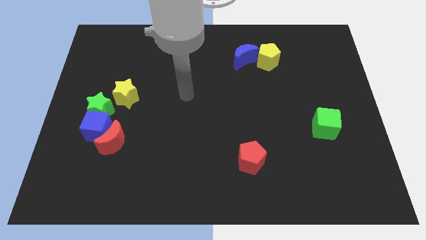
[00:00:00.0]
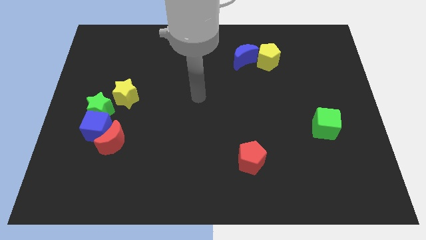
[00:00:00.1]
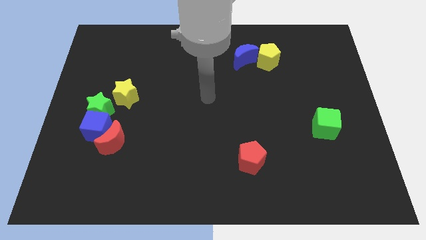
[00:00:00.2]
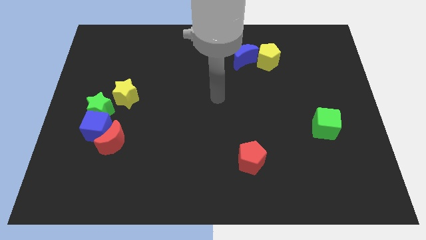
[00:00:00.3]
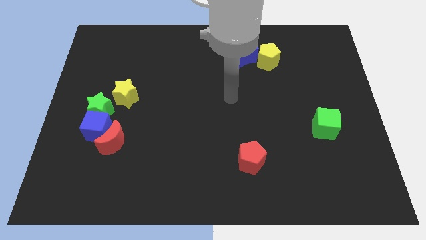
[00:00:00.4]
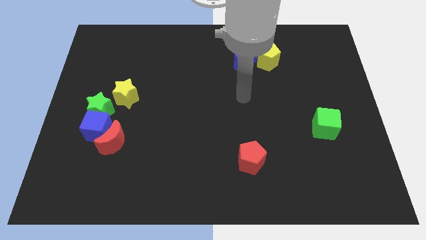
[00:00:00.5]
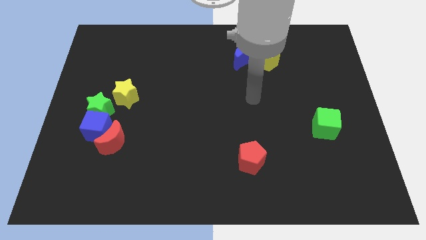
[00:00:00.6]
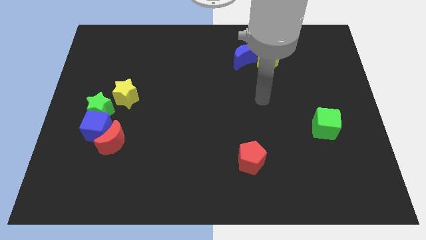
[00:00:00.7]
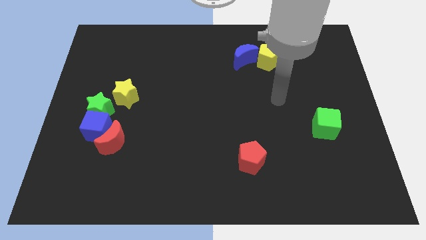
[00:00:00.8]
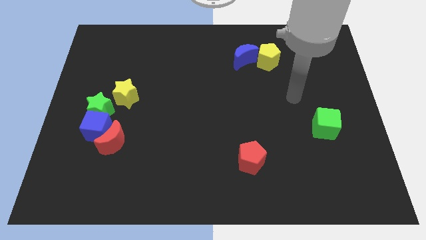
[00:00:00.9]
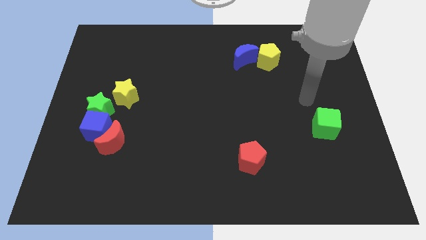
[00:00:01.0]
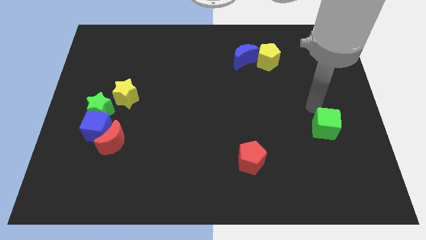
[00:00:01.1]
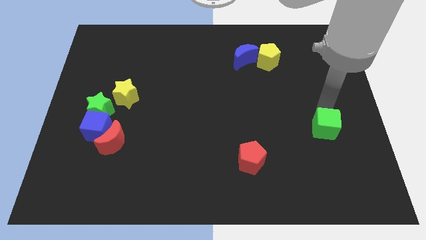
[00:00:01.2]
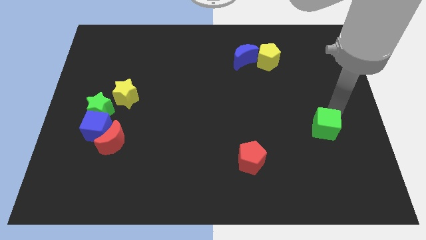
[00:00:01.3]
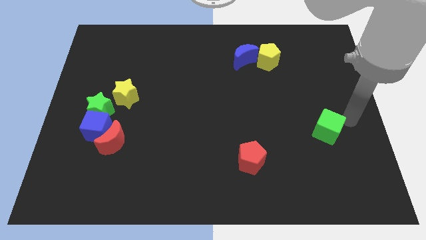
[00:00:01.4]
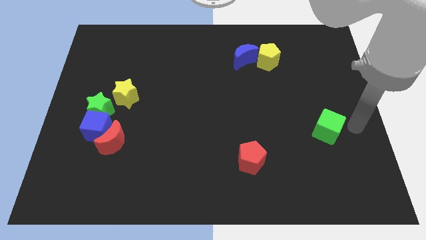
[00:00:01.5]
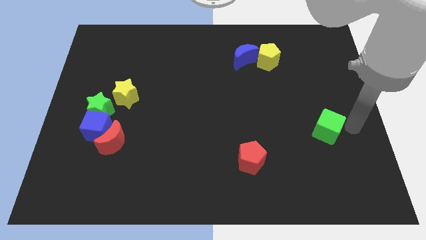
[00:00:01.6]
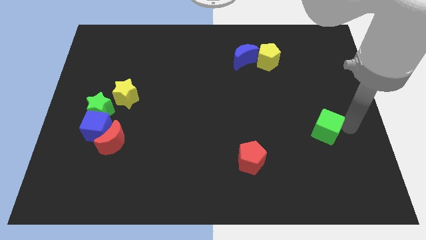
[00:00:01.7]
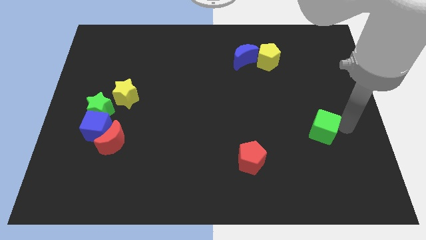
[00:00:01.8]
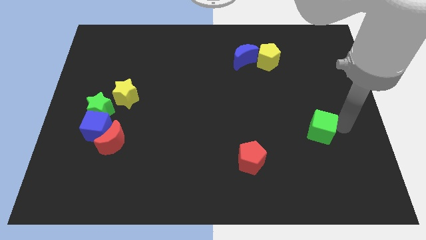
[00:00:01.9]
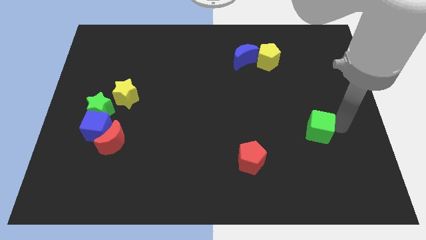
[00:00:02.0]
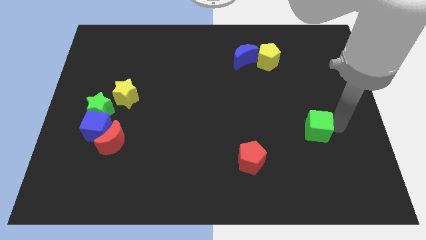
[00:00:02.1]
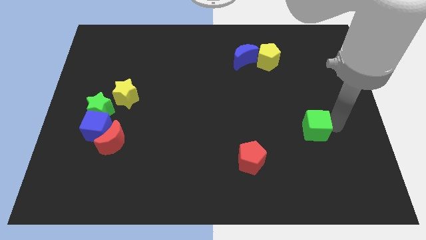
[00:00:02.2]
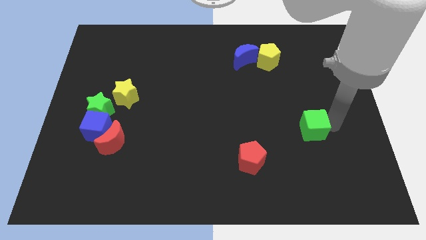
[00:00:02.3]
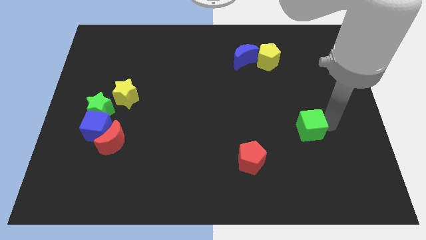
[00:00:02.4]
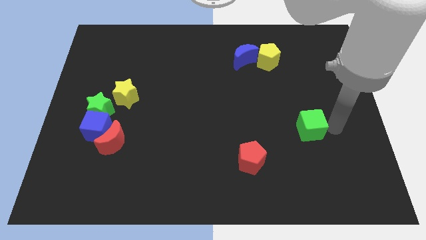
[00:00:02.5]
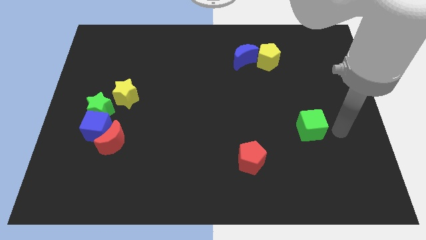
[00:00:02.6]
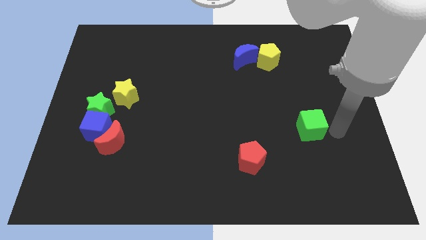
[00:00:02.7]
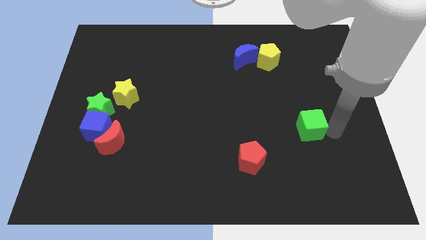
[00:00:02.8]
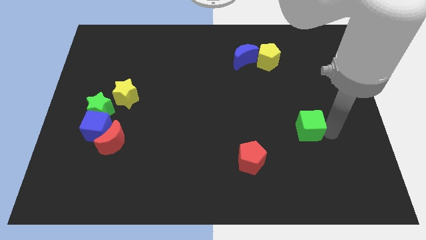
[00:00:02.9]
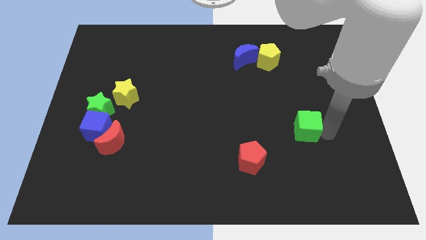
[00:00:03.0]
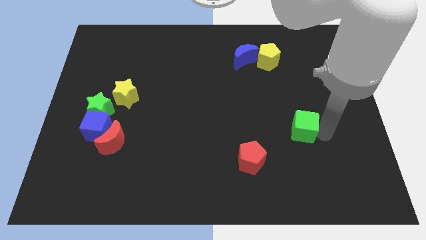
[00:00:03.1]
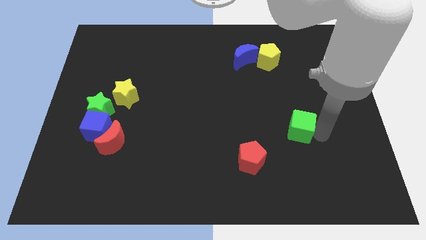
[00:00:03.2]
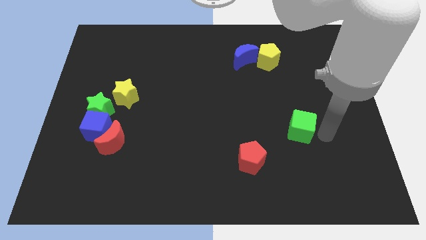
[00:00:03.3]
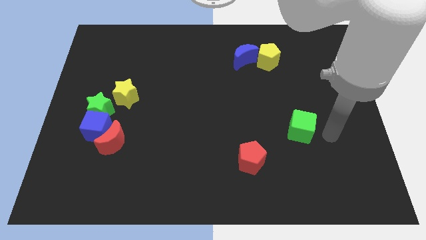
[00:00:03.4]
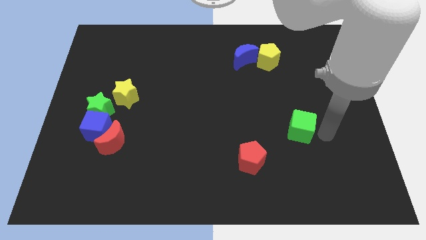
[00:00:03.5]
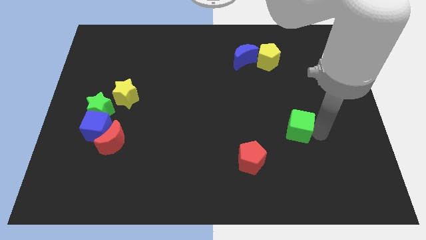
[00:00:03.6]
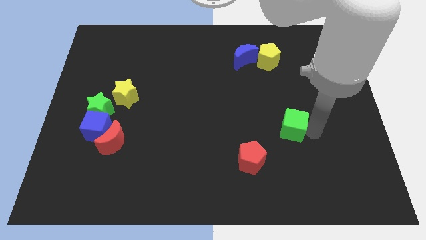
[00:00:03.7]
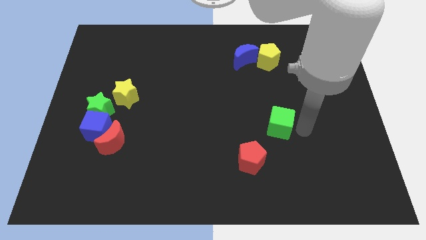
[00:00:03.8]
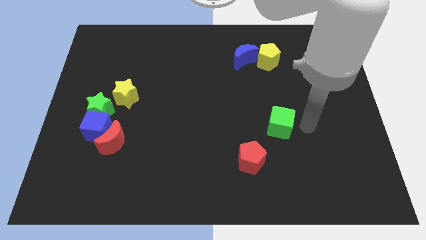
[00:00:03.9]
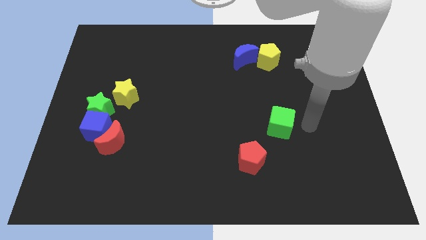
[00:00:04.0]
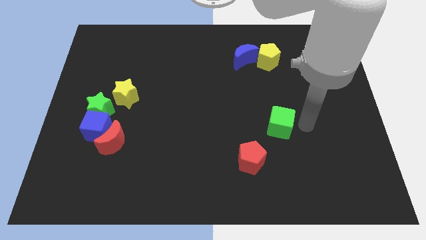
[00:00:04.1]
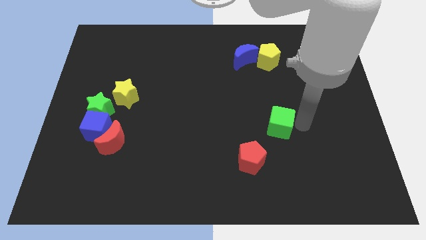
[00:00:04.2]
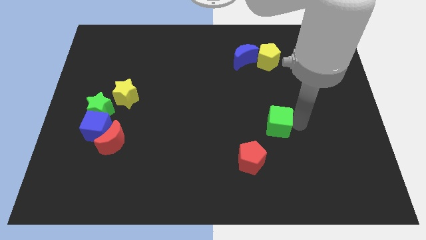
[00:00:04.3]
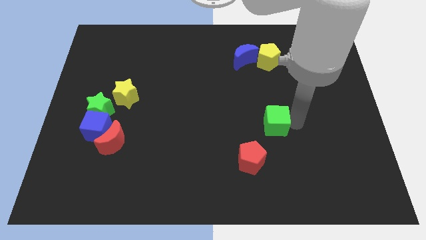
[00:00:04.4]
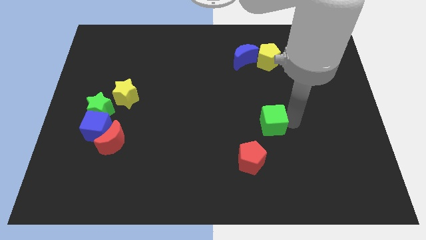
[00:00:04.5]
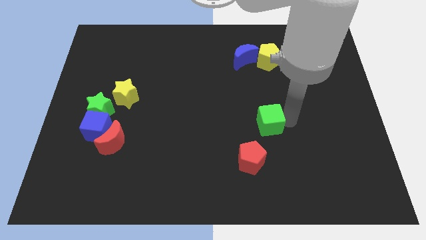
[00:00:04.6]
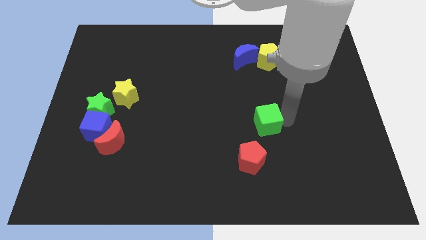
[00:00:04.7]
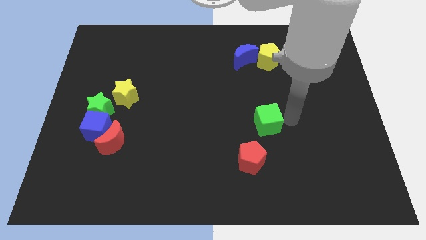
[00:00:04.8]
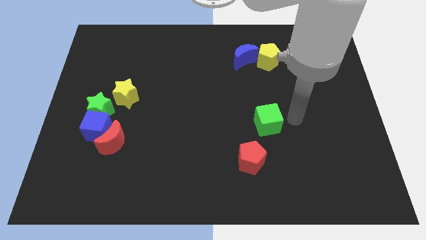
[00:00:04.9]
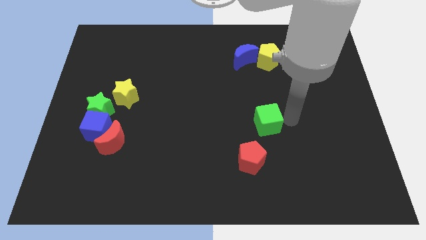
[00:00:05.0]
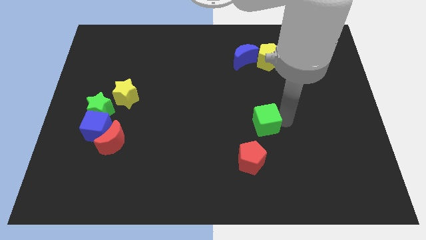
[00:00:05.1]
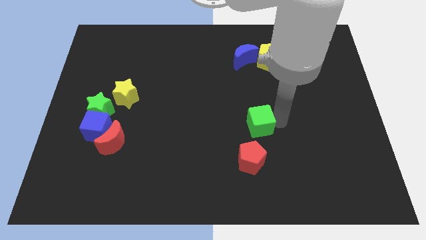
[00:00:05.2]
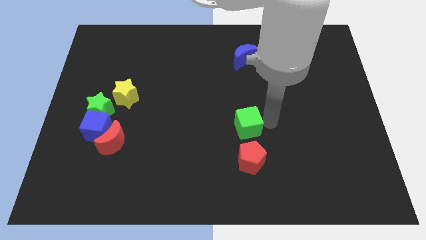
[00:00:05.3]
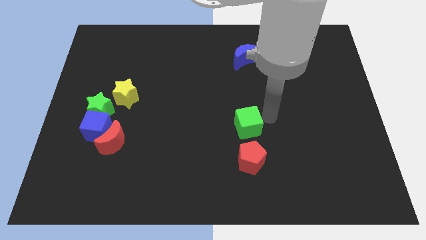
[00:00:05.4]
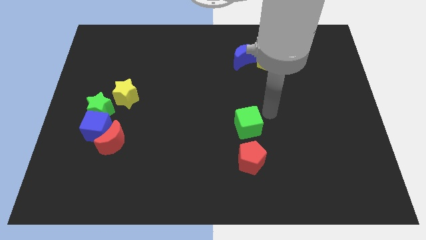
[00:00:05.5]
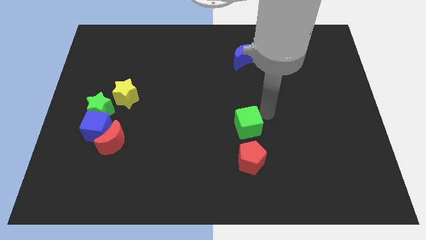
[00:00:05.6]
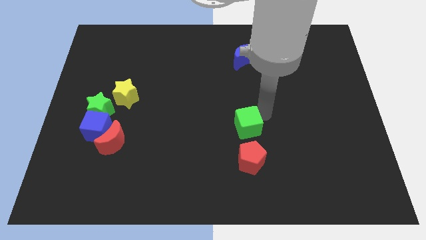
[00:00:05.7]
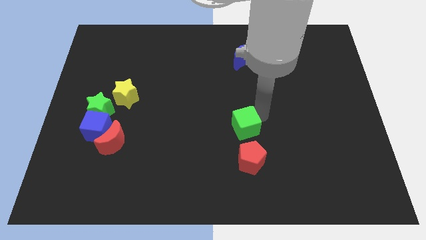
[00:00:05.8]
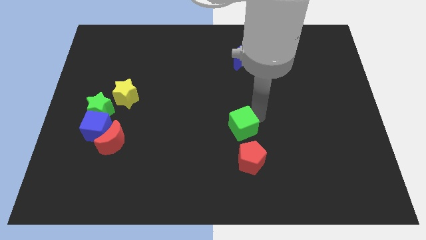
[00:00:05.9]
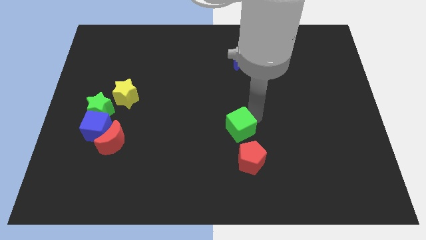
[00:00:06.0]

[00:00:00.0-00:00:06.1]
push the green cube to the top left of the red pentagon
